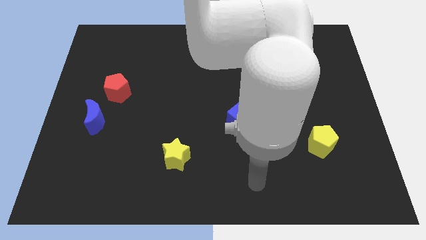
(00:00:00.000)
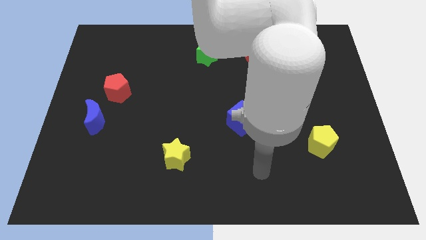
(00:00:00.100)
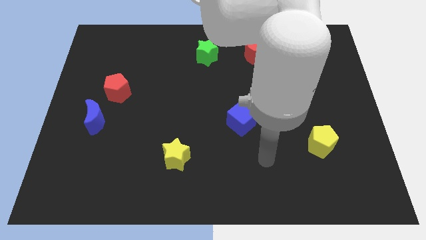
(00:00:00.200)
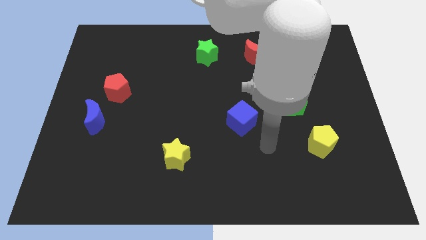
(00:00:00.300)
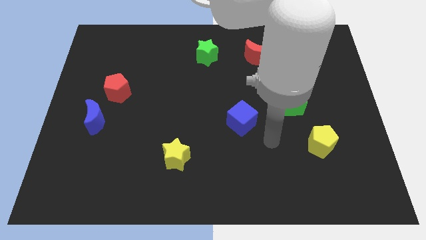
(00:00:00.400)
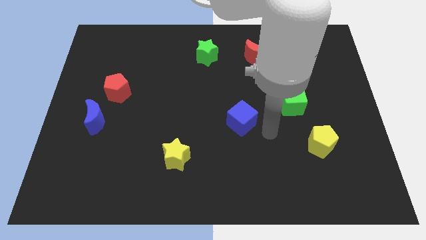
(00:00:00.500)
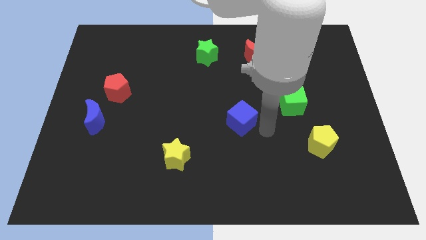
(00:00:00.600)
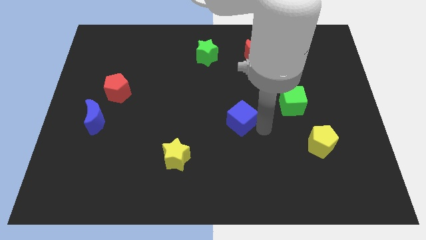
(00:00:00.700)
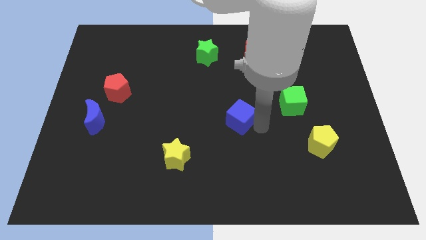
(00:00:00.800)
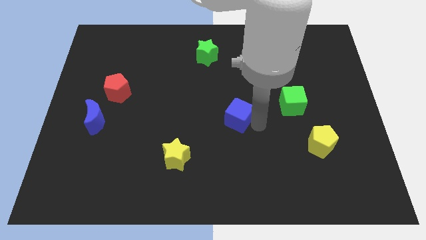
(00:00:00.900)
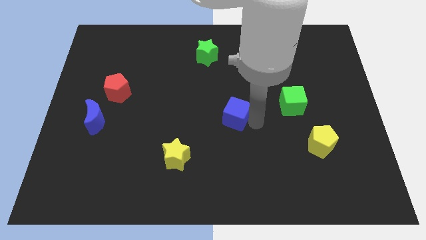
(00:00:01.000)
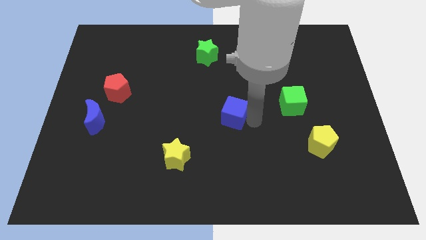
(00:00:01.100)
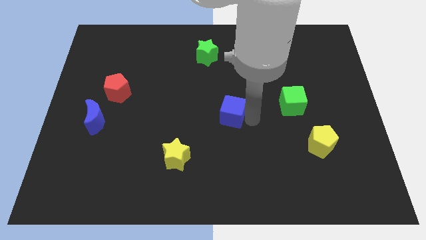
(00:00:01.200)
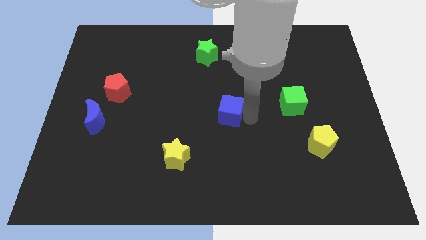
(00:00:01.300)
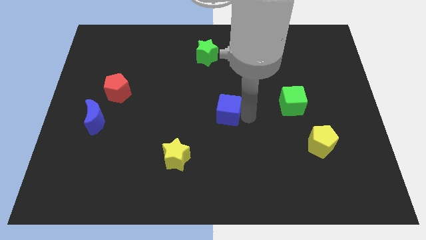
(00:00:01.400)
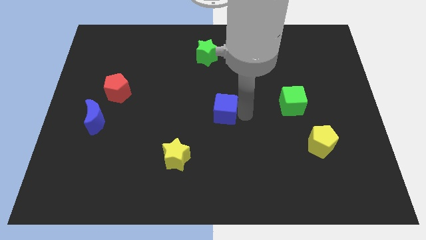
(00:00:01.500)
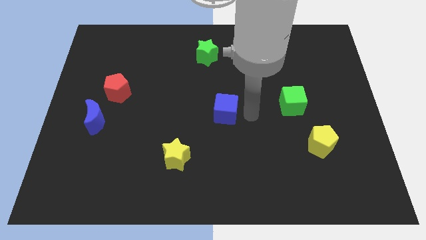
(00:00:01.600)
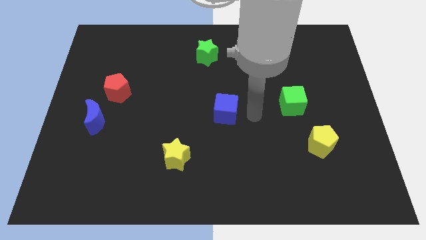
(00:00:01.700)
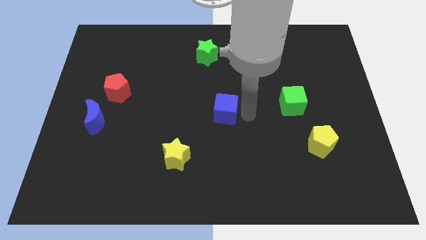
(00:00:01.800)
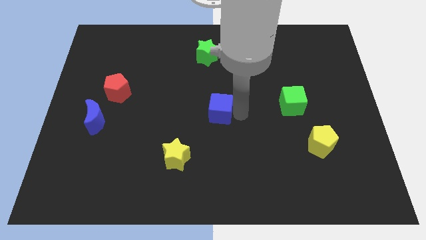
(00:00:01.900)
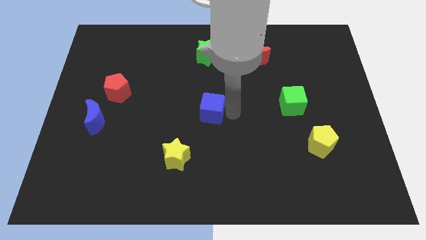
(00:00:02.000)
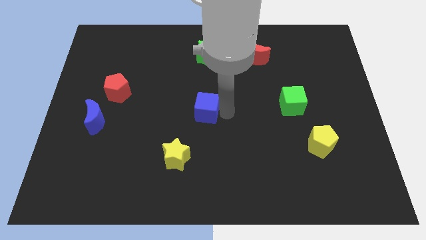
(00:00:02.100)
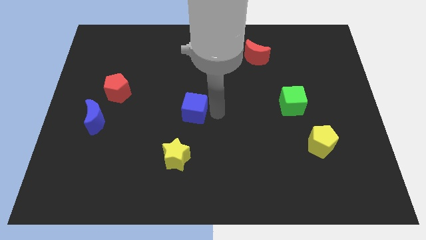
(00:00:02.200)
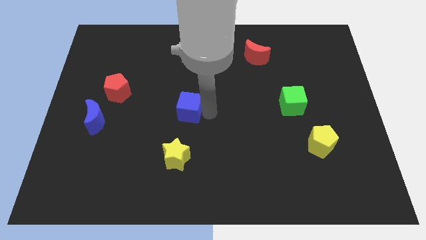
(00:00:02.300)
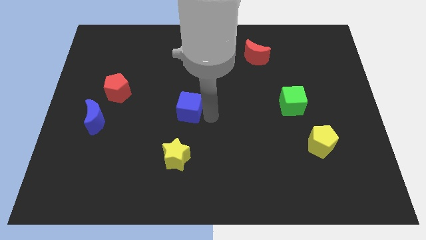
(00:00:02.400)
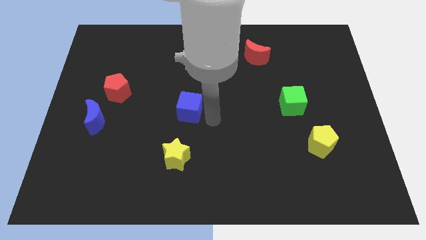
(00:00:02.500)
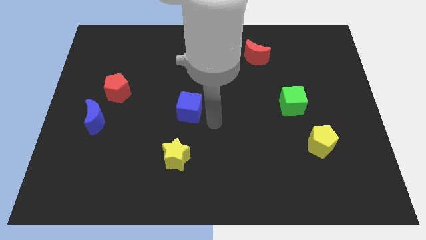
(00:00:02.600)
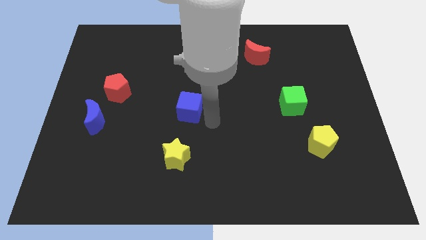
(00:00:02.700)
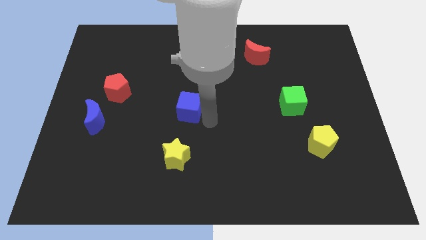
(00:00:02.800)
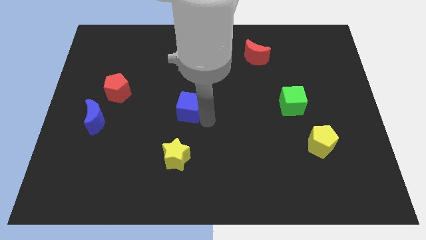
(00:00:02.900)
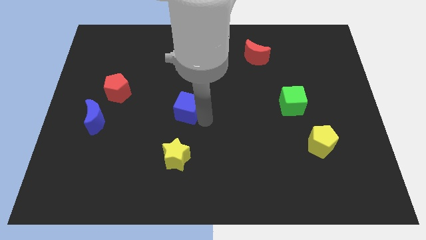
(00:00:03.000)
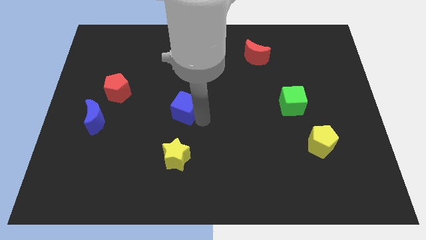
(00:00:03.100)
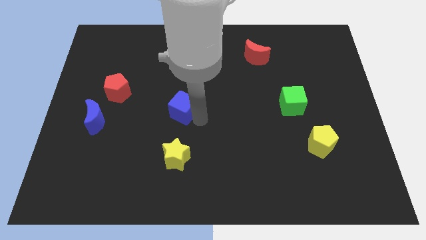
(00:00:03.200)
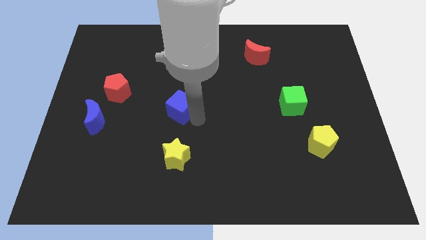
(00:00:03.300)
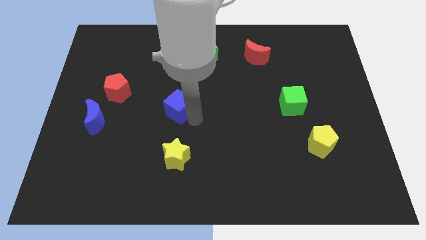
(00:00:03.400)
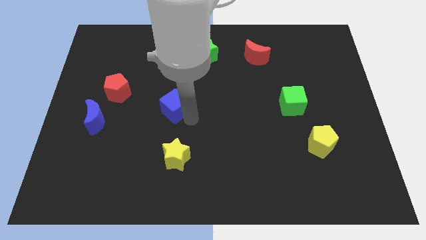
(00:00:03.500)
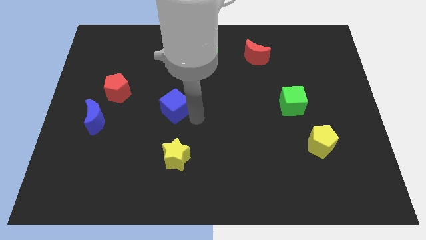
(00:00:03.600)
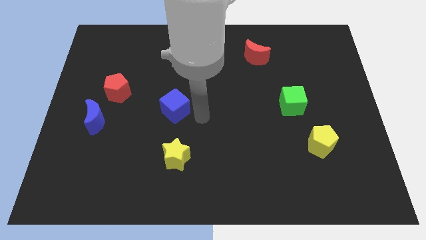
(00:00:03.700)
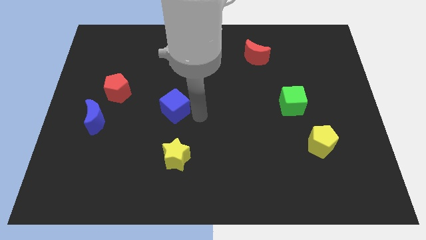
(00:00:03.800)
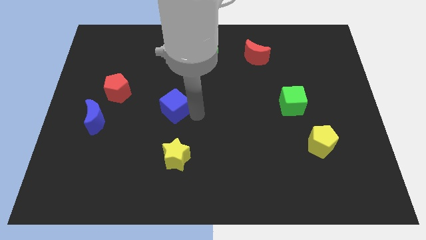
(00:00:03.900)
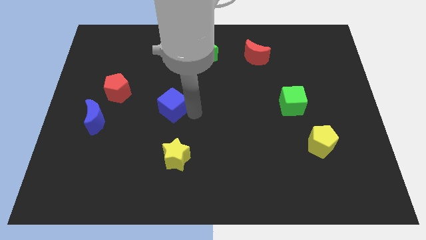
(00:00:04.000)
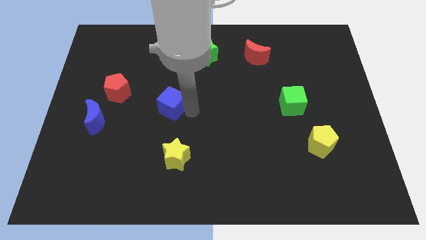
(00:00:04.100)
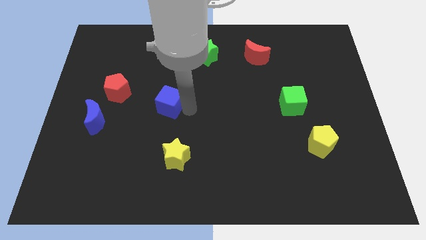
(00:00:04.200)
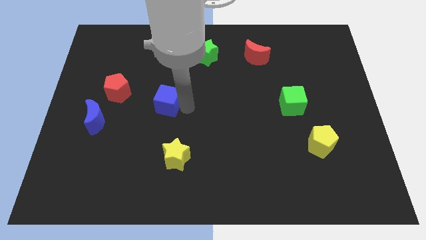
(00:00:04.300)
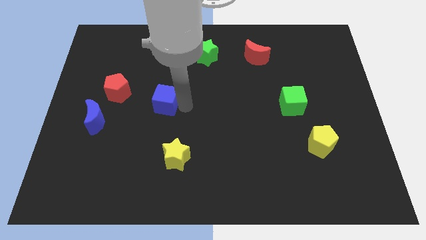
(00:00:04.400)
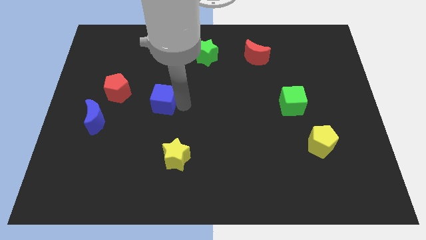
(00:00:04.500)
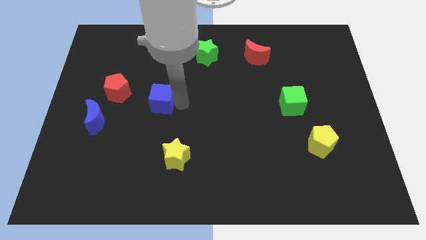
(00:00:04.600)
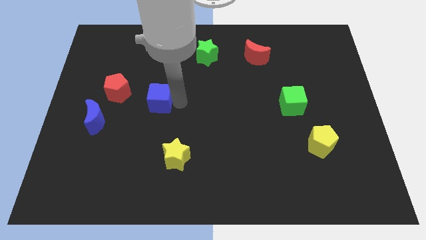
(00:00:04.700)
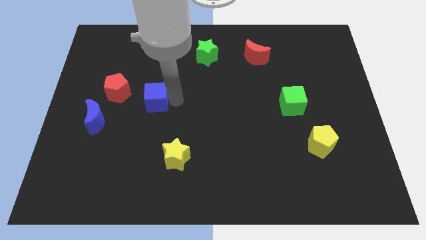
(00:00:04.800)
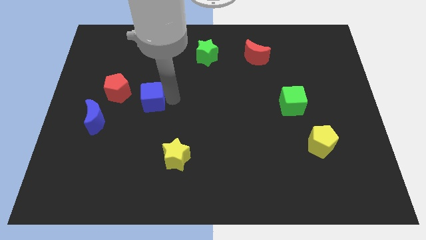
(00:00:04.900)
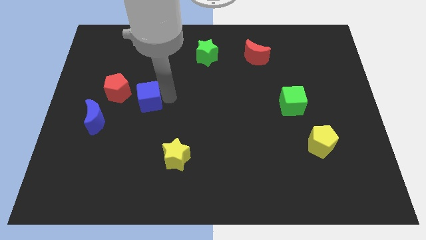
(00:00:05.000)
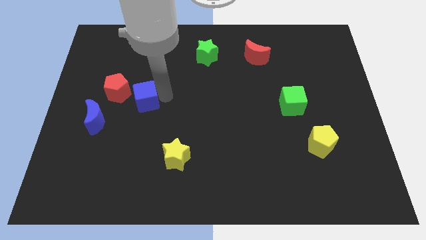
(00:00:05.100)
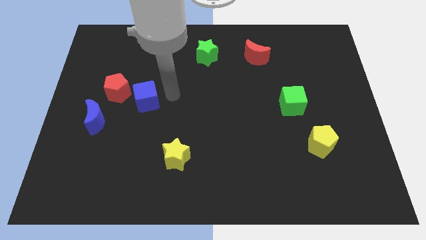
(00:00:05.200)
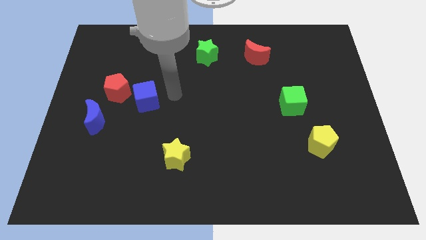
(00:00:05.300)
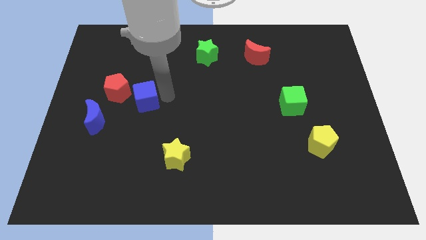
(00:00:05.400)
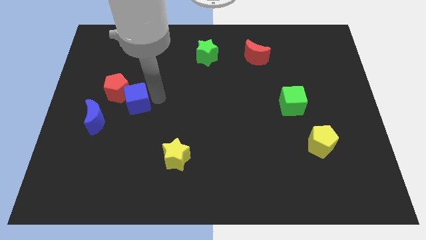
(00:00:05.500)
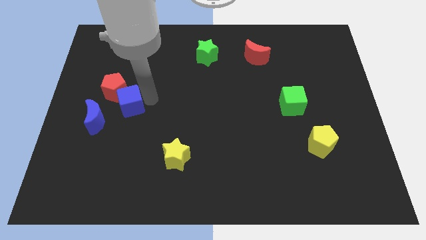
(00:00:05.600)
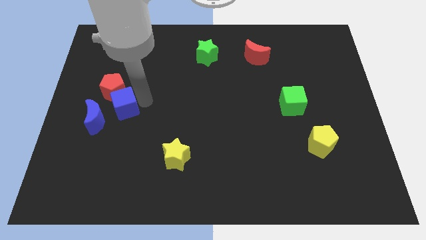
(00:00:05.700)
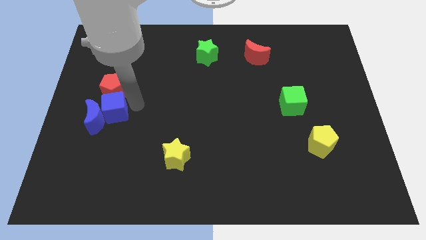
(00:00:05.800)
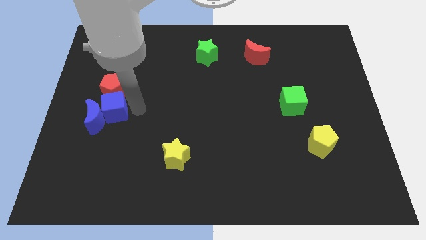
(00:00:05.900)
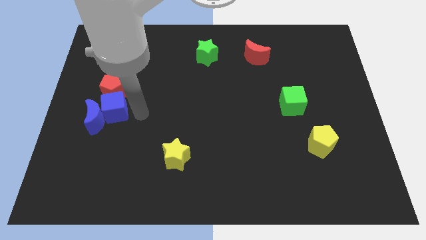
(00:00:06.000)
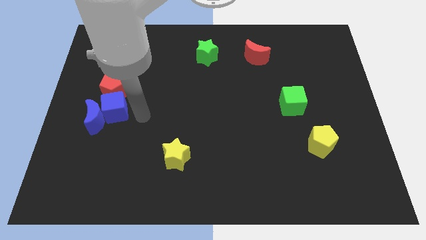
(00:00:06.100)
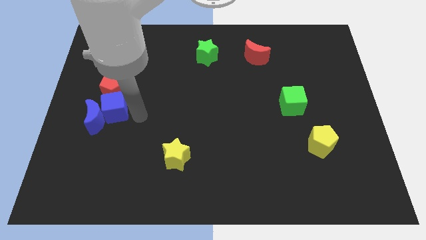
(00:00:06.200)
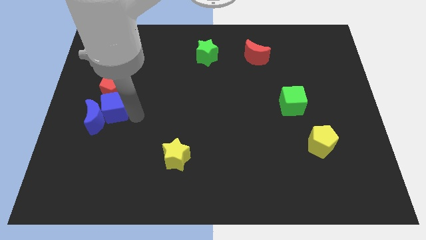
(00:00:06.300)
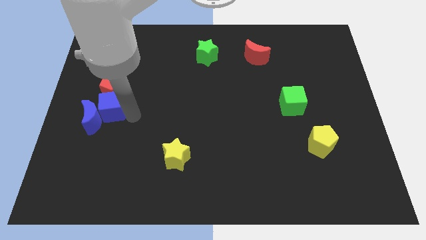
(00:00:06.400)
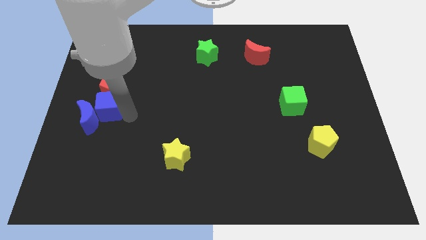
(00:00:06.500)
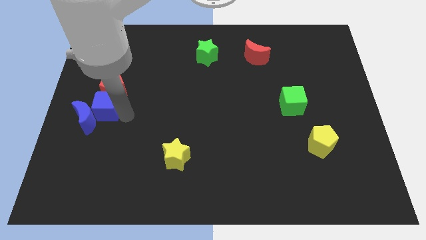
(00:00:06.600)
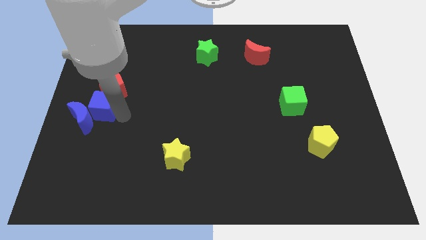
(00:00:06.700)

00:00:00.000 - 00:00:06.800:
move the blue cube to the left side of the board
